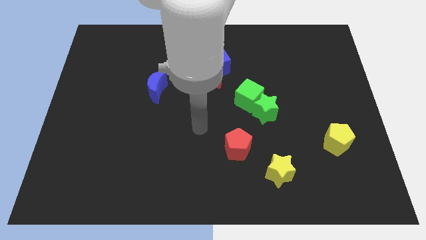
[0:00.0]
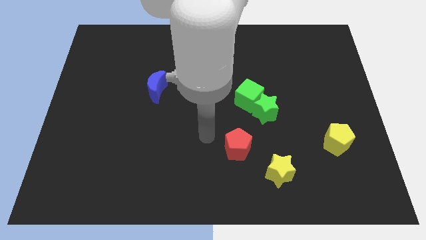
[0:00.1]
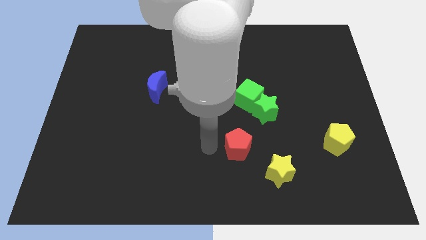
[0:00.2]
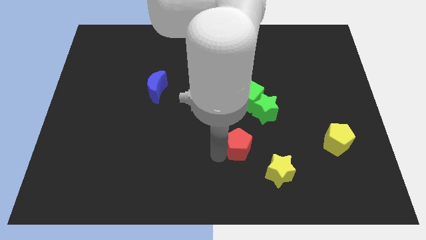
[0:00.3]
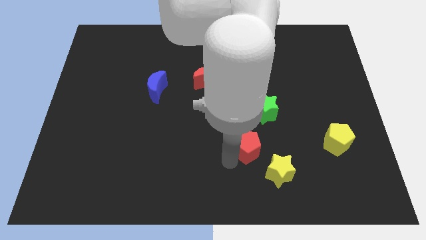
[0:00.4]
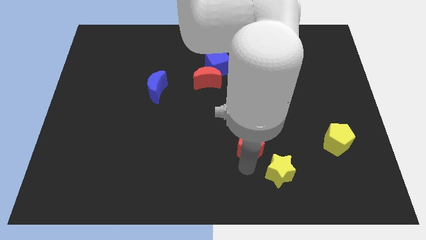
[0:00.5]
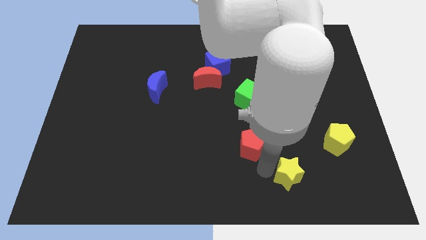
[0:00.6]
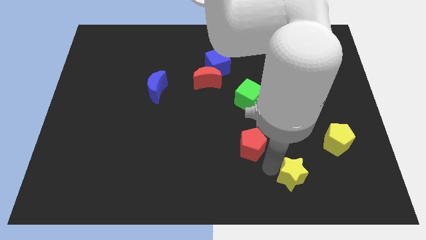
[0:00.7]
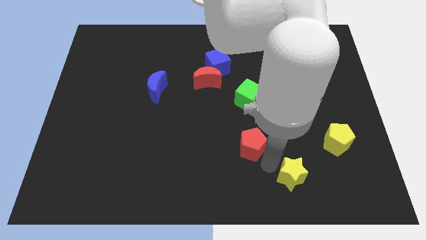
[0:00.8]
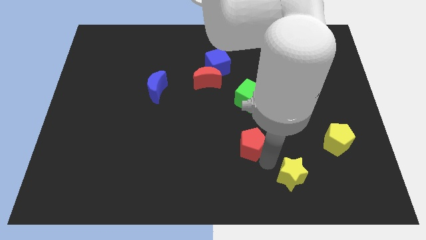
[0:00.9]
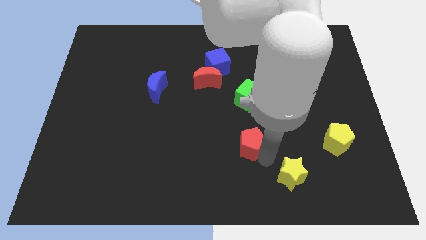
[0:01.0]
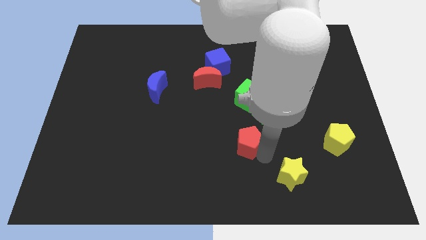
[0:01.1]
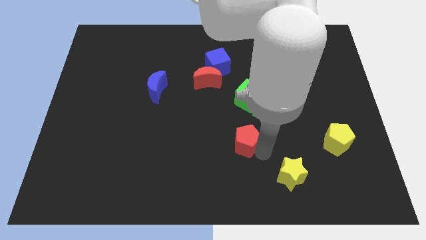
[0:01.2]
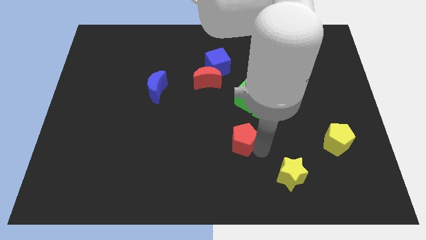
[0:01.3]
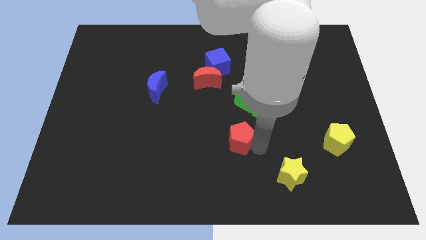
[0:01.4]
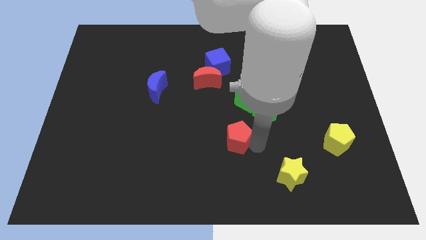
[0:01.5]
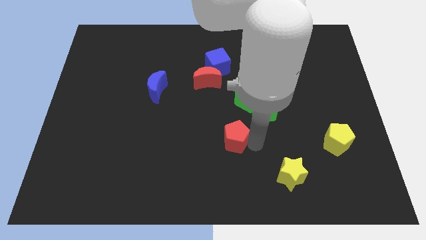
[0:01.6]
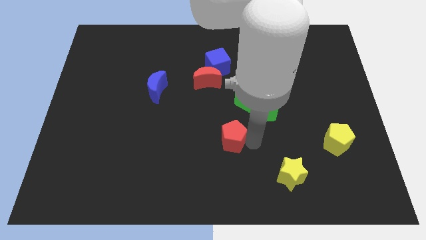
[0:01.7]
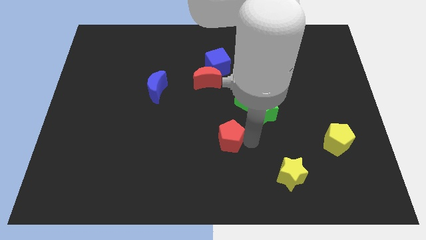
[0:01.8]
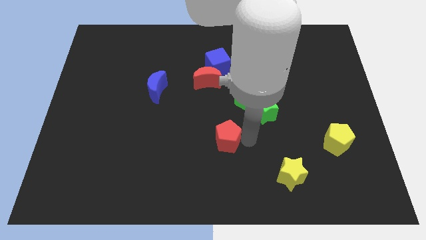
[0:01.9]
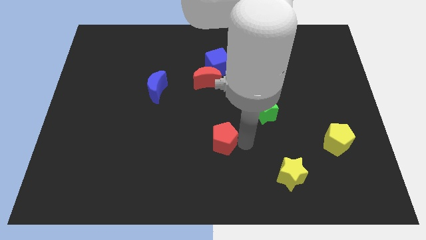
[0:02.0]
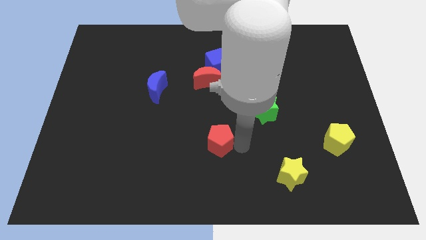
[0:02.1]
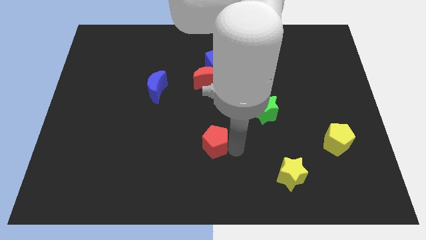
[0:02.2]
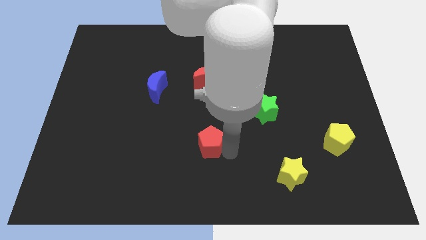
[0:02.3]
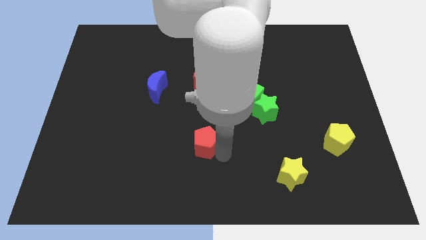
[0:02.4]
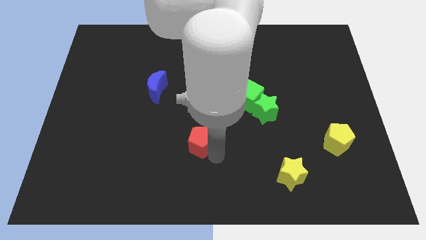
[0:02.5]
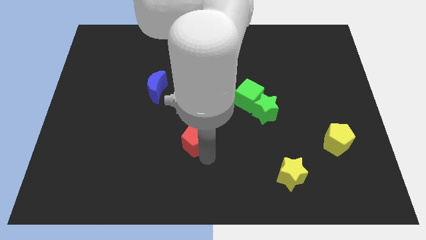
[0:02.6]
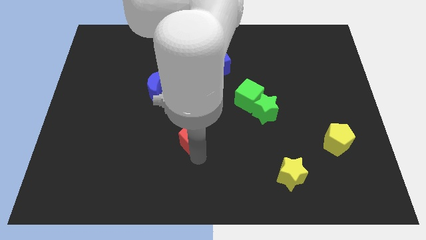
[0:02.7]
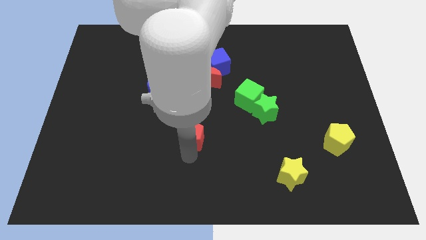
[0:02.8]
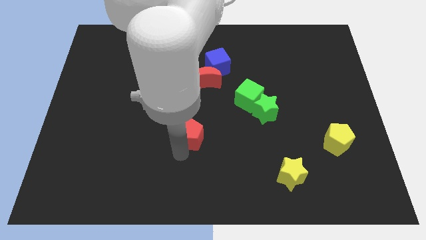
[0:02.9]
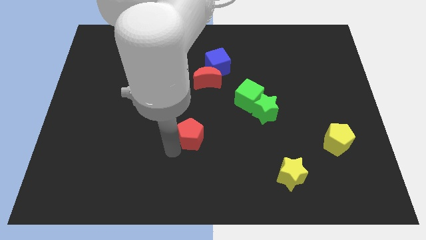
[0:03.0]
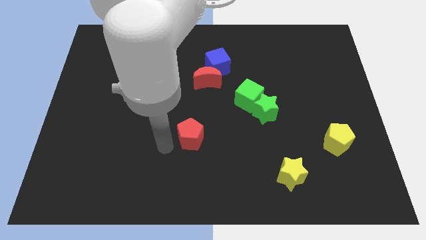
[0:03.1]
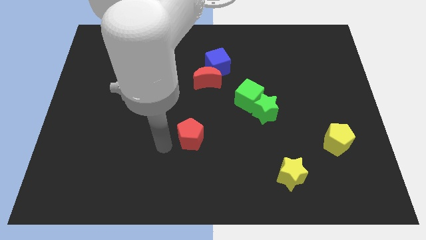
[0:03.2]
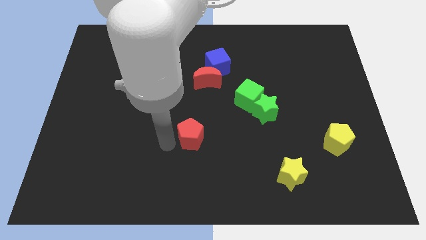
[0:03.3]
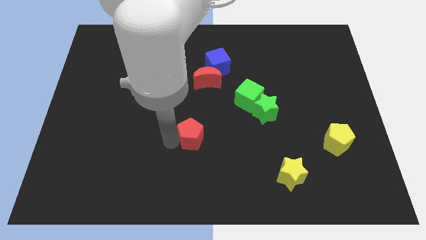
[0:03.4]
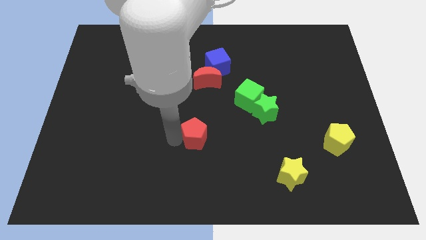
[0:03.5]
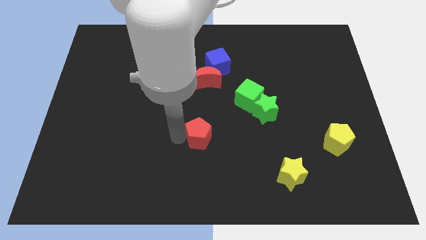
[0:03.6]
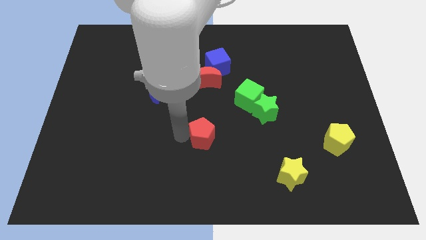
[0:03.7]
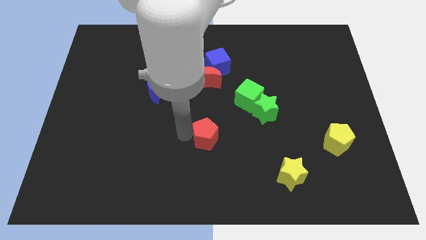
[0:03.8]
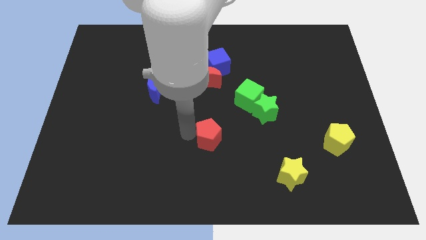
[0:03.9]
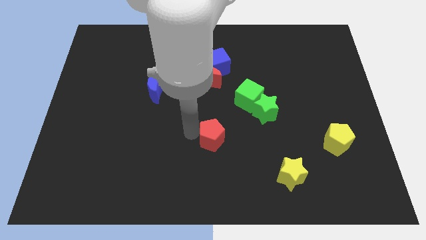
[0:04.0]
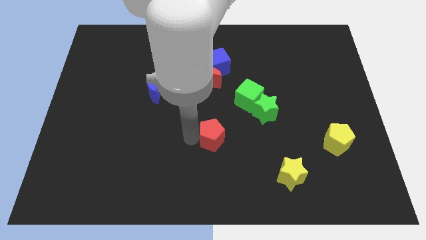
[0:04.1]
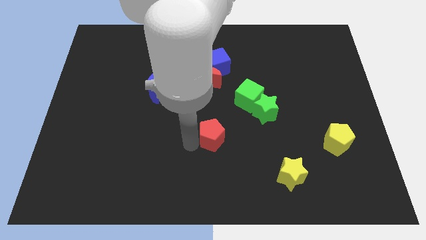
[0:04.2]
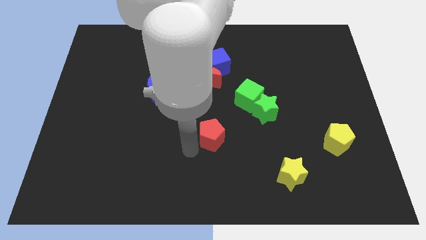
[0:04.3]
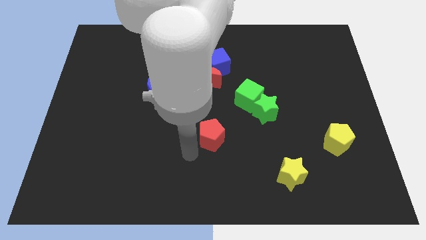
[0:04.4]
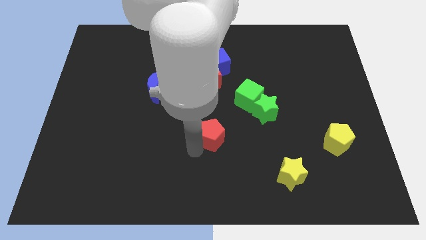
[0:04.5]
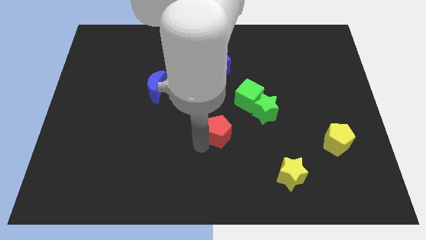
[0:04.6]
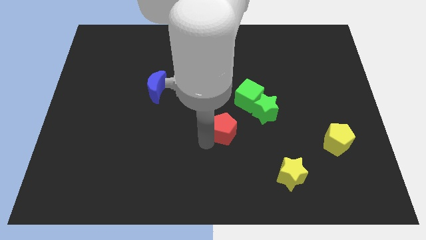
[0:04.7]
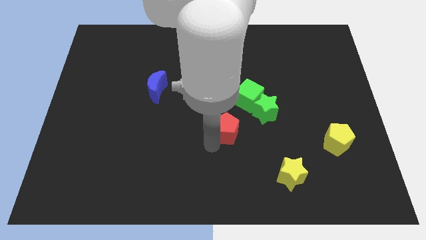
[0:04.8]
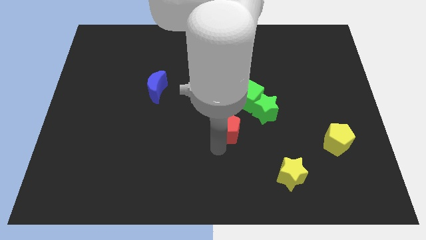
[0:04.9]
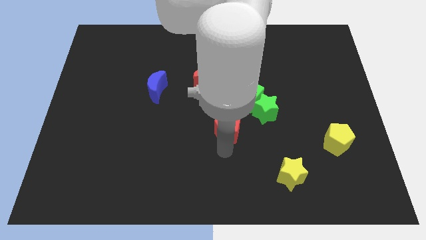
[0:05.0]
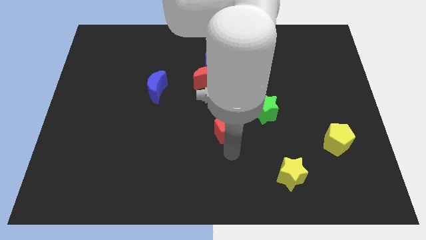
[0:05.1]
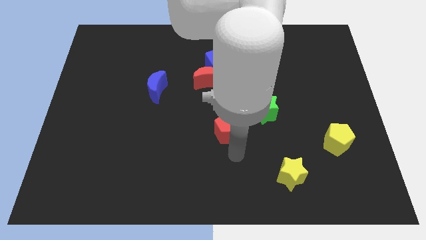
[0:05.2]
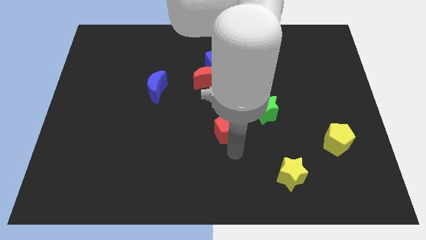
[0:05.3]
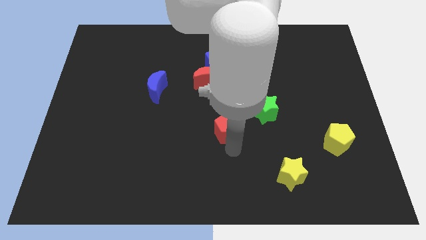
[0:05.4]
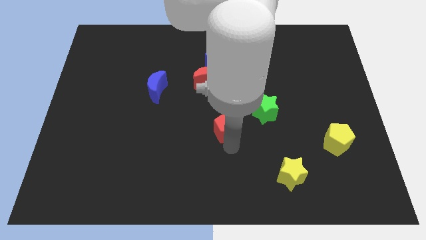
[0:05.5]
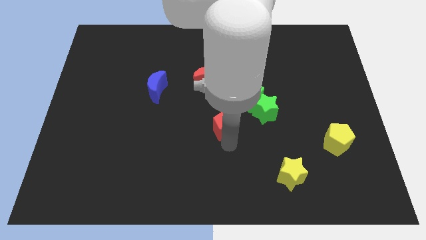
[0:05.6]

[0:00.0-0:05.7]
push the red pentagon left of the green star

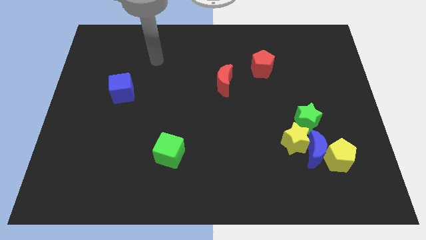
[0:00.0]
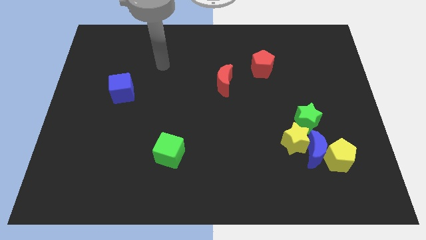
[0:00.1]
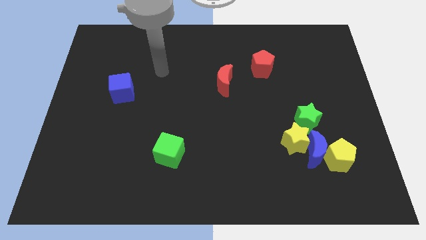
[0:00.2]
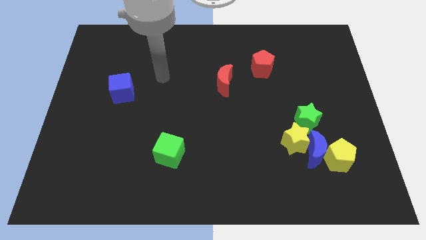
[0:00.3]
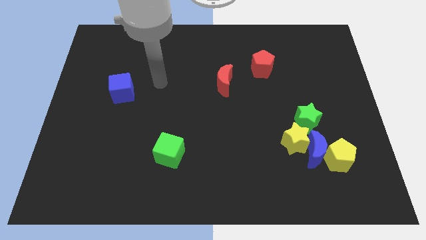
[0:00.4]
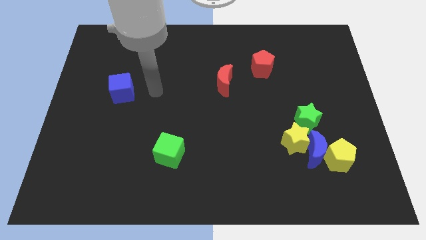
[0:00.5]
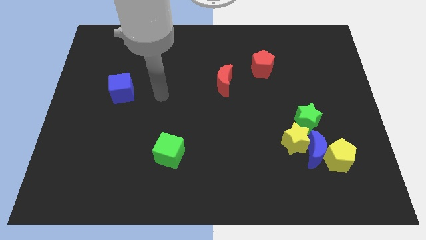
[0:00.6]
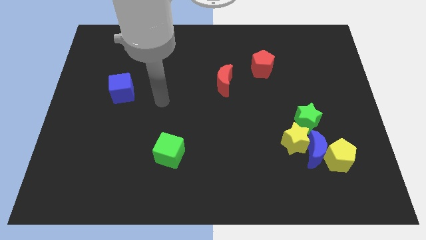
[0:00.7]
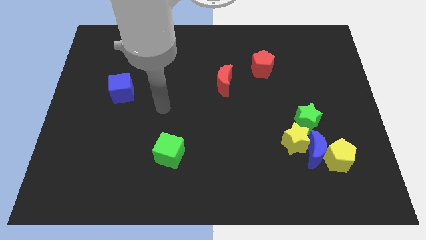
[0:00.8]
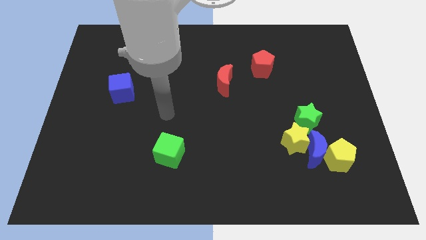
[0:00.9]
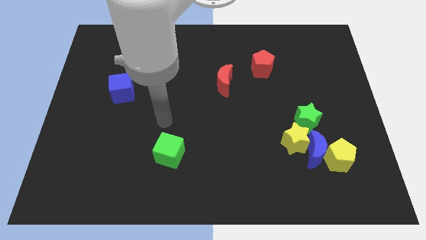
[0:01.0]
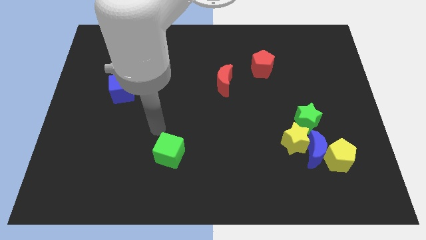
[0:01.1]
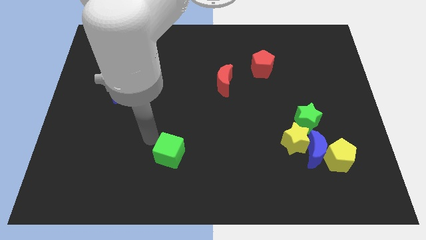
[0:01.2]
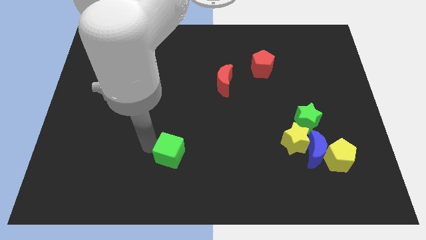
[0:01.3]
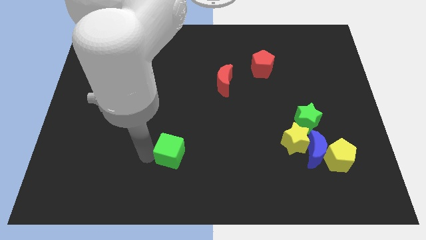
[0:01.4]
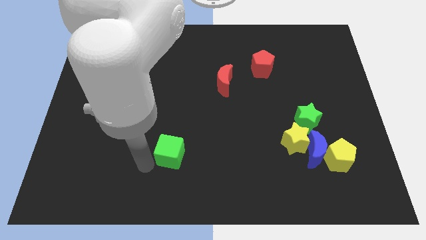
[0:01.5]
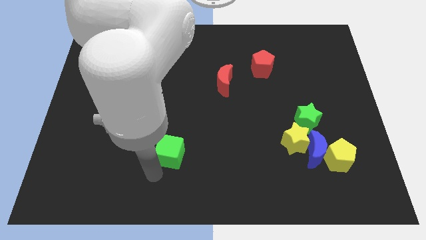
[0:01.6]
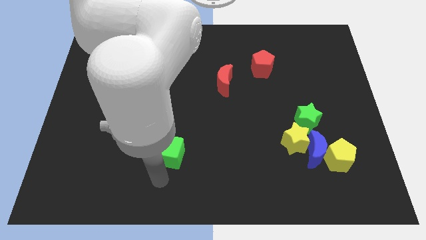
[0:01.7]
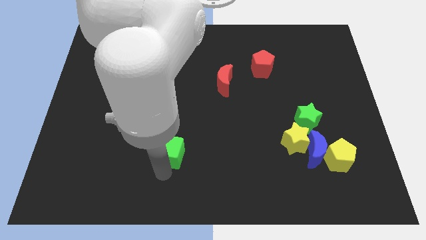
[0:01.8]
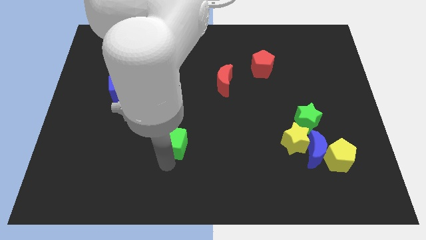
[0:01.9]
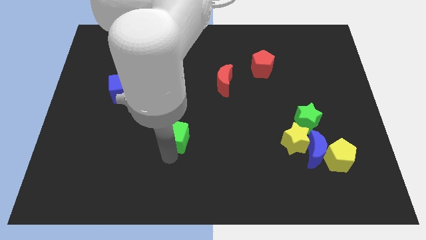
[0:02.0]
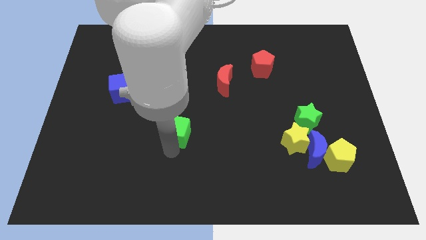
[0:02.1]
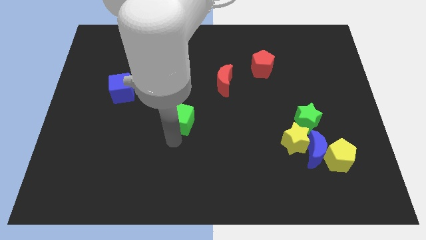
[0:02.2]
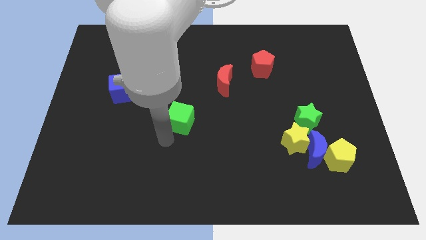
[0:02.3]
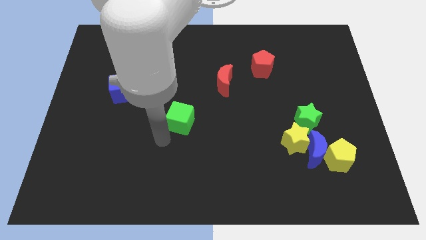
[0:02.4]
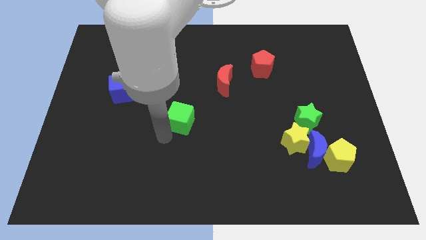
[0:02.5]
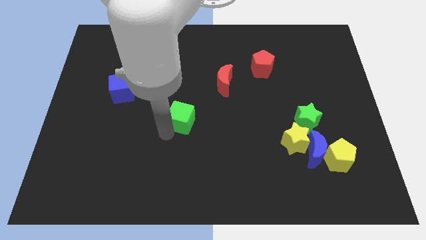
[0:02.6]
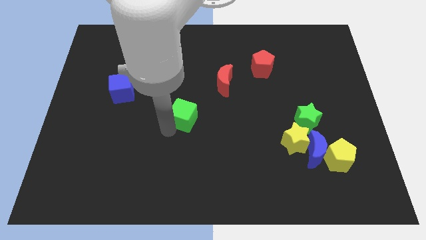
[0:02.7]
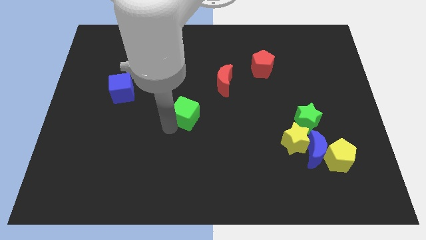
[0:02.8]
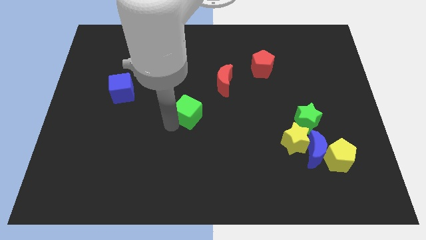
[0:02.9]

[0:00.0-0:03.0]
move the green cube to the bottom left of the red moon
